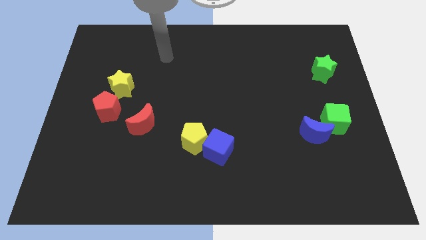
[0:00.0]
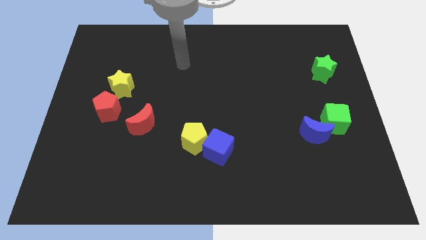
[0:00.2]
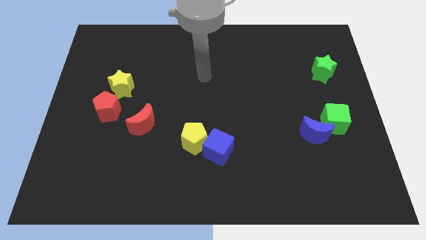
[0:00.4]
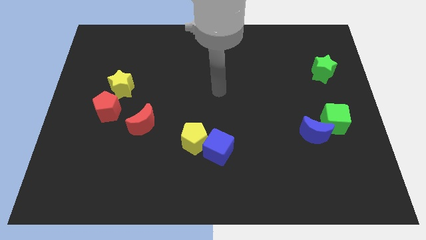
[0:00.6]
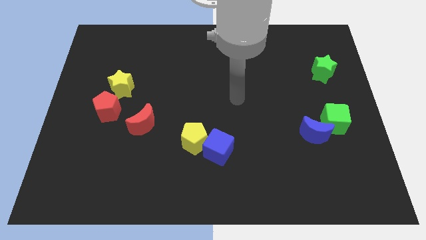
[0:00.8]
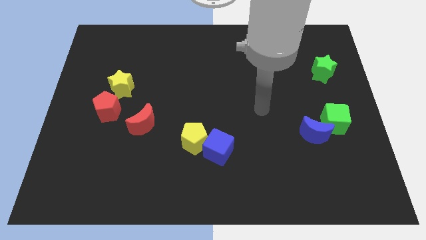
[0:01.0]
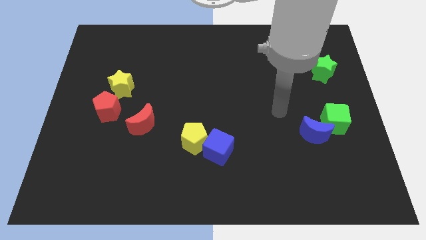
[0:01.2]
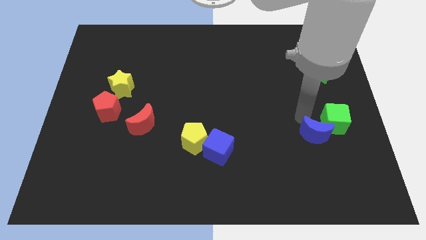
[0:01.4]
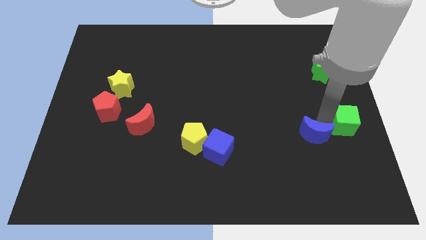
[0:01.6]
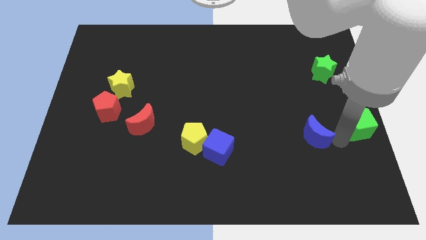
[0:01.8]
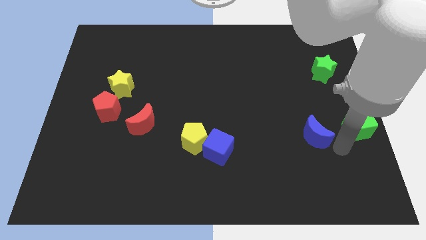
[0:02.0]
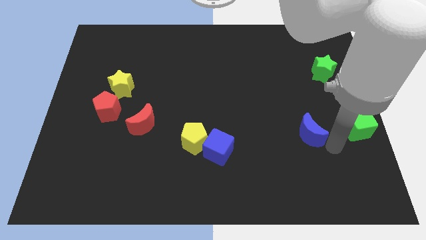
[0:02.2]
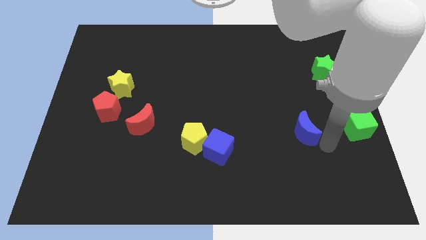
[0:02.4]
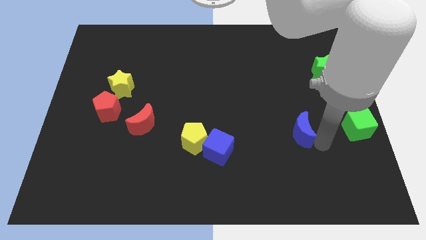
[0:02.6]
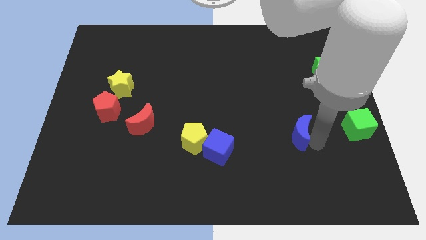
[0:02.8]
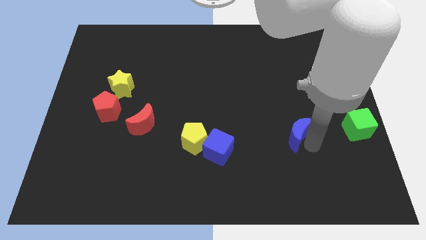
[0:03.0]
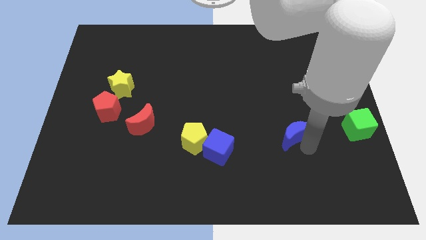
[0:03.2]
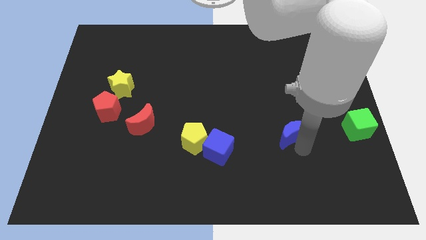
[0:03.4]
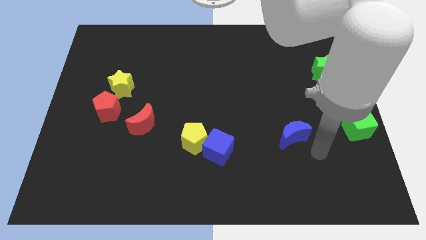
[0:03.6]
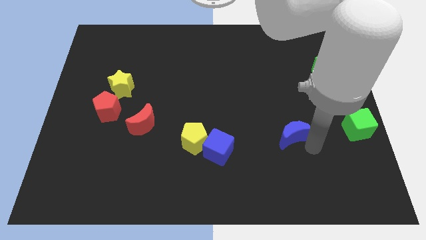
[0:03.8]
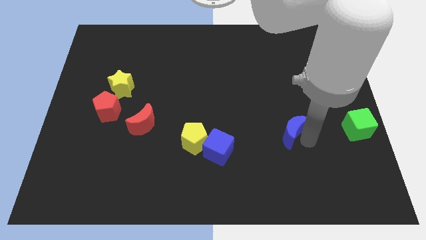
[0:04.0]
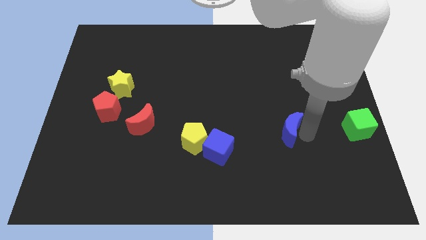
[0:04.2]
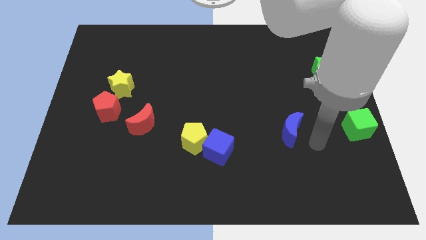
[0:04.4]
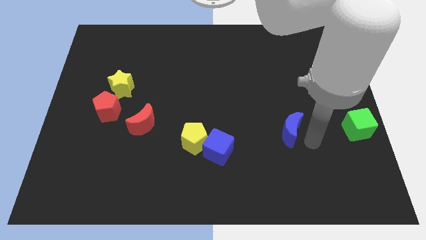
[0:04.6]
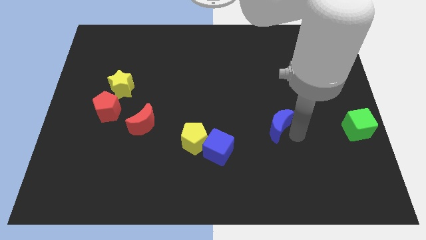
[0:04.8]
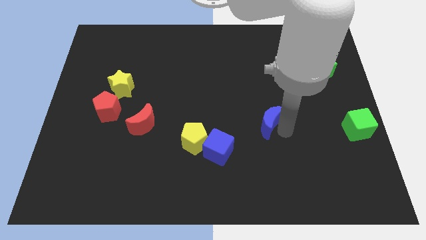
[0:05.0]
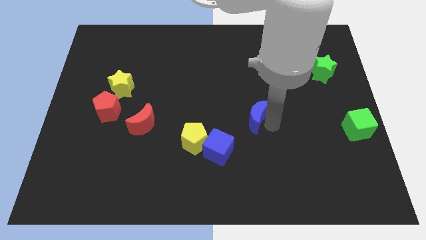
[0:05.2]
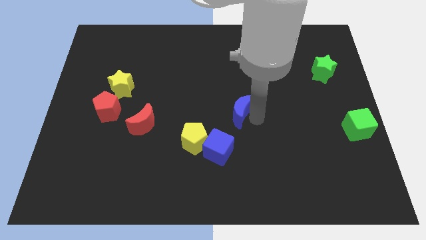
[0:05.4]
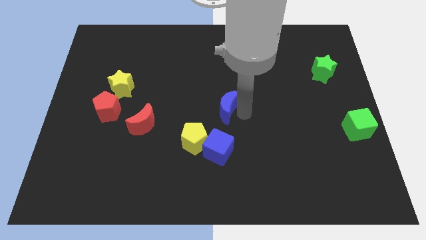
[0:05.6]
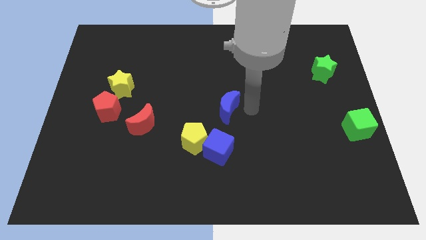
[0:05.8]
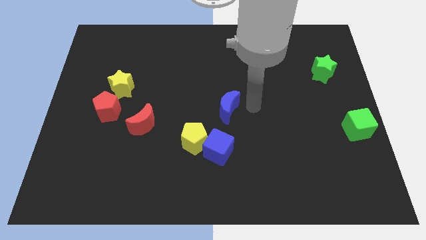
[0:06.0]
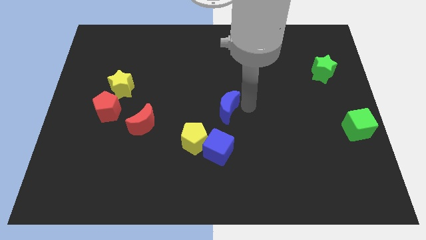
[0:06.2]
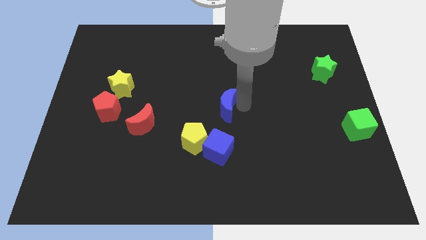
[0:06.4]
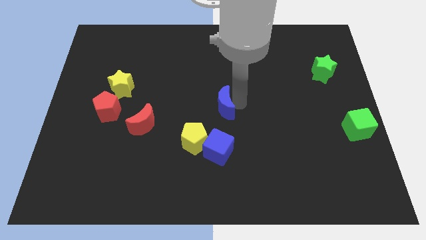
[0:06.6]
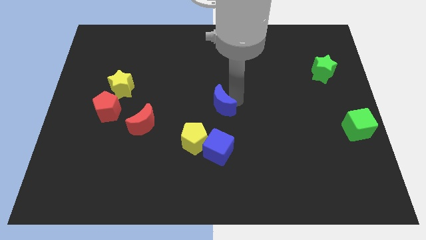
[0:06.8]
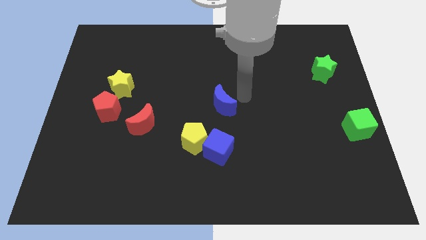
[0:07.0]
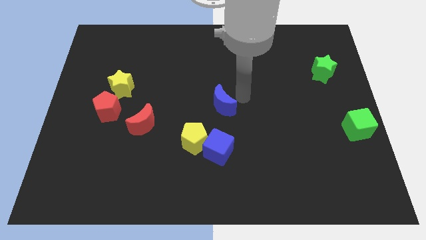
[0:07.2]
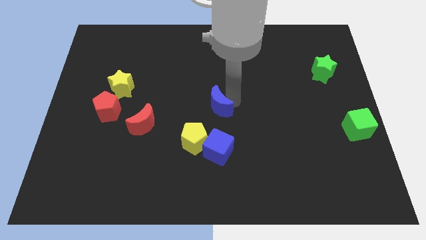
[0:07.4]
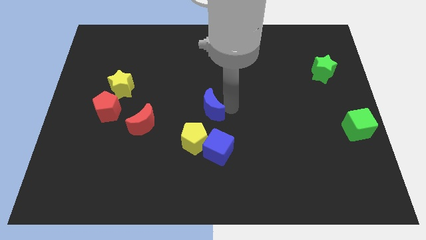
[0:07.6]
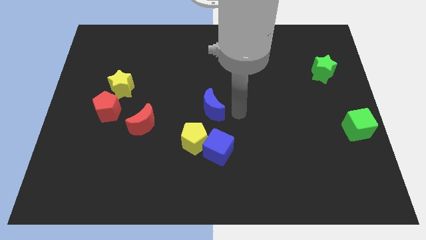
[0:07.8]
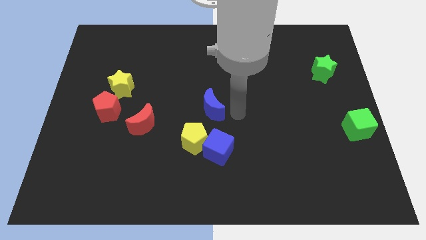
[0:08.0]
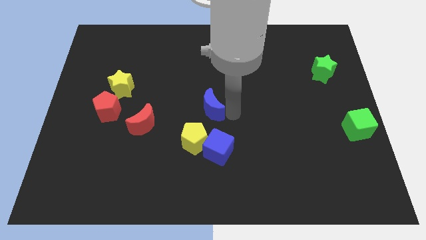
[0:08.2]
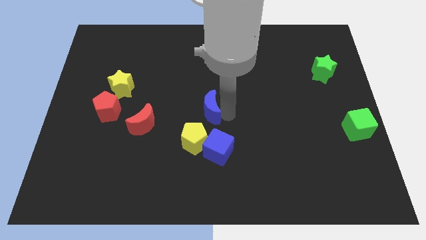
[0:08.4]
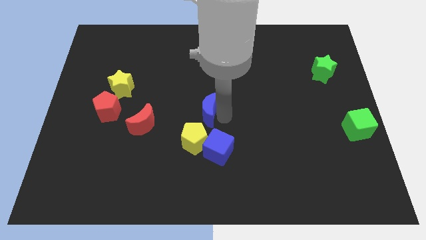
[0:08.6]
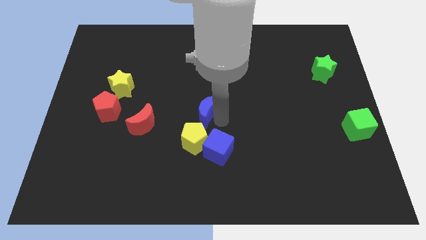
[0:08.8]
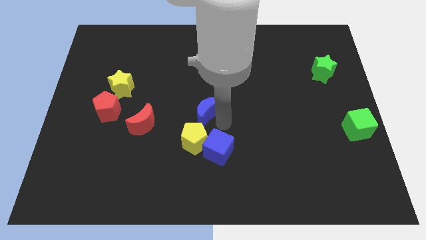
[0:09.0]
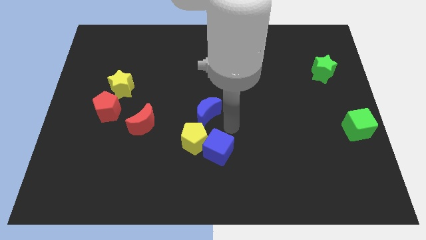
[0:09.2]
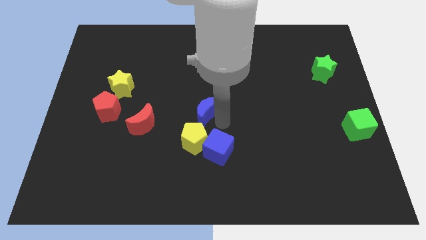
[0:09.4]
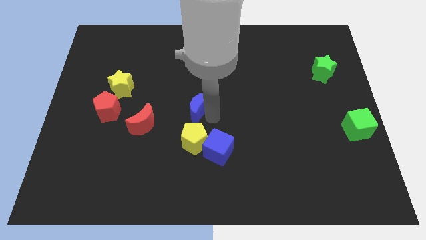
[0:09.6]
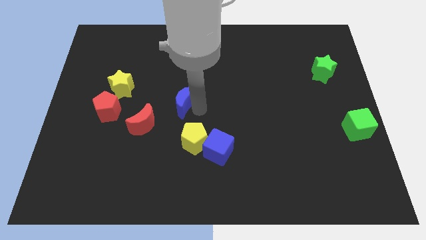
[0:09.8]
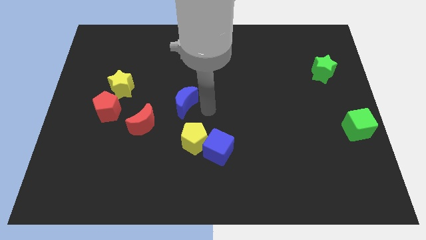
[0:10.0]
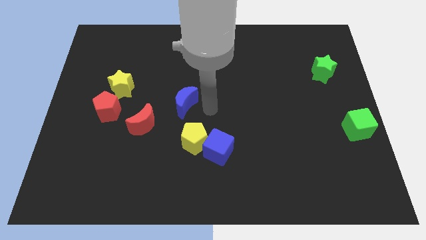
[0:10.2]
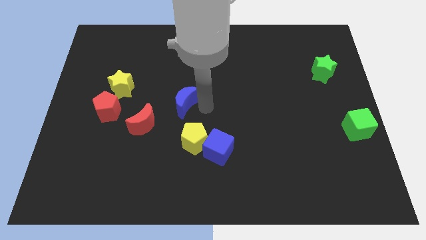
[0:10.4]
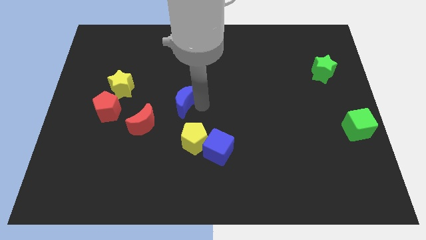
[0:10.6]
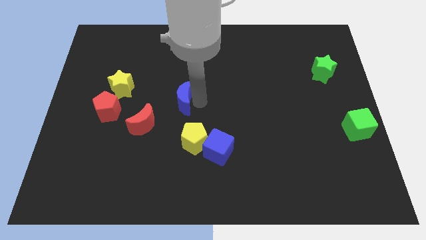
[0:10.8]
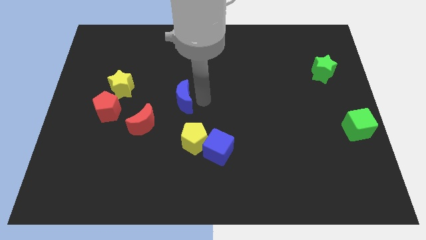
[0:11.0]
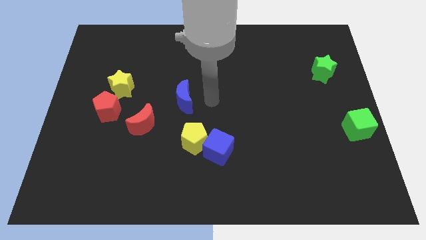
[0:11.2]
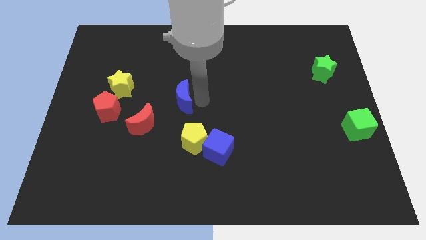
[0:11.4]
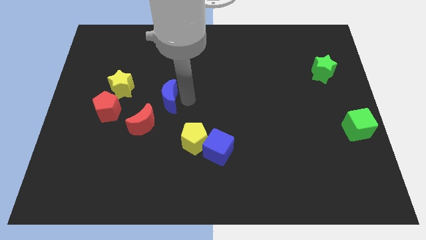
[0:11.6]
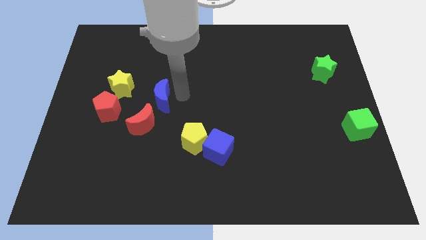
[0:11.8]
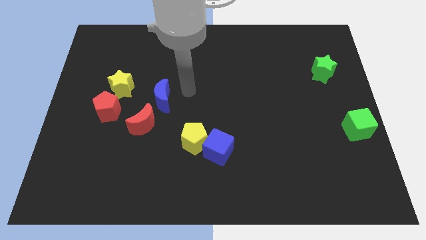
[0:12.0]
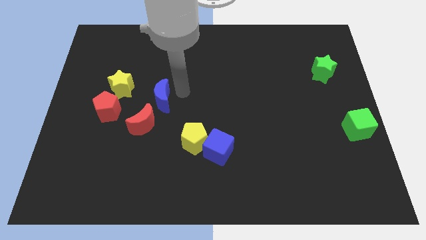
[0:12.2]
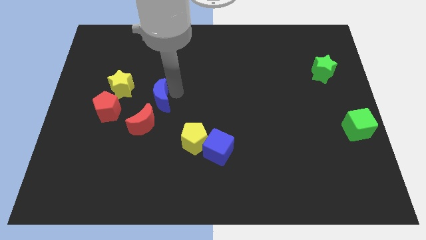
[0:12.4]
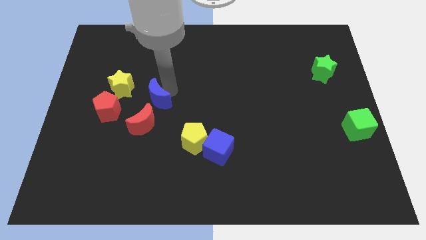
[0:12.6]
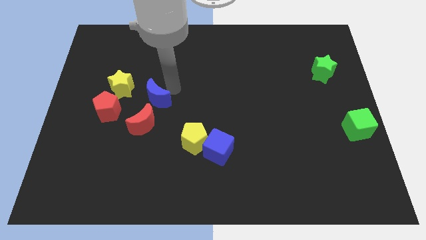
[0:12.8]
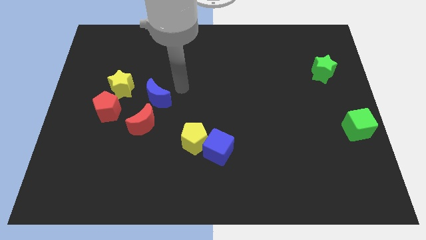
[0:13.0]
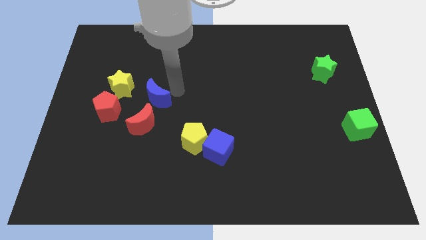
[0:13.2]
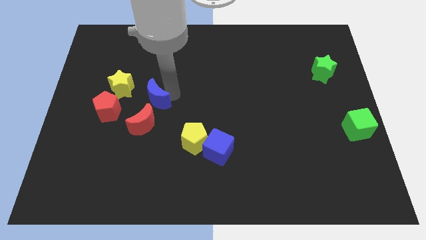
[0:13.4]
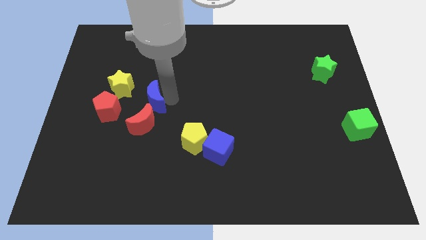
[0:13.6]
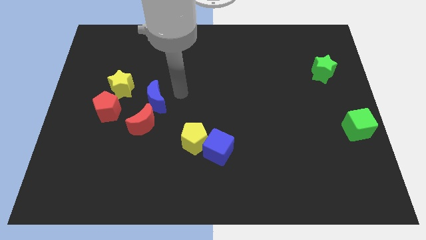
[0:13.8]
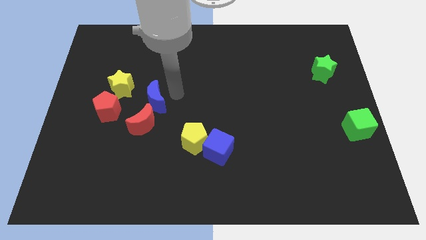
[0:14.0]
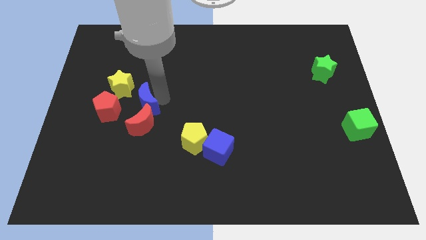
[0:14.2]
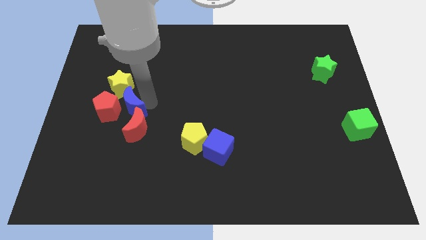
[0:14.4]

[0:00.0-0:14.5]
push the blue moon to the red pentagon

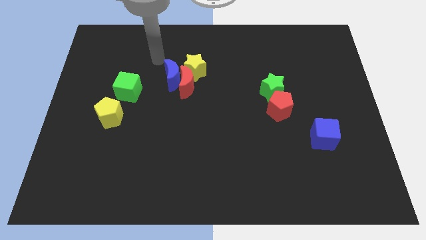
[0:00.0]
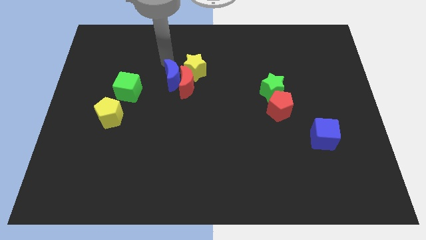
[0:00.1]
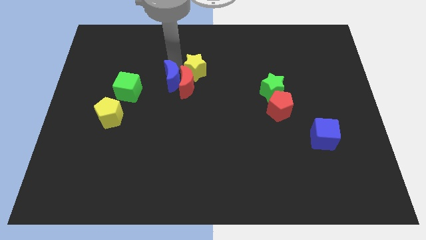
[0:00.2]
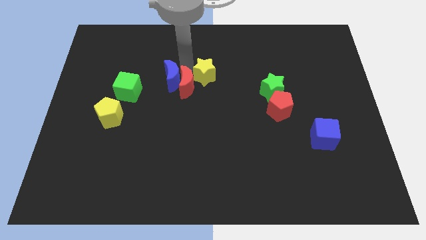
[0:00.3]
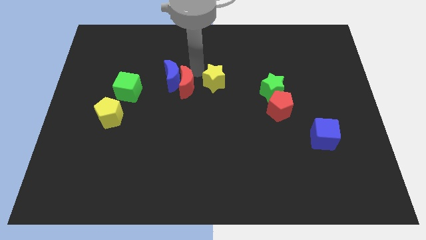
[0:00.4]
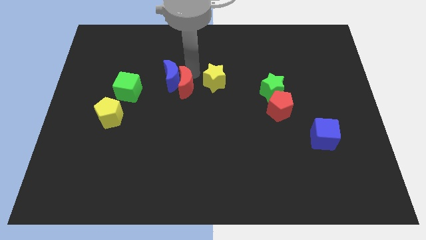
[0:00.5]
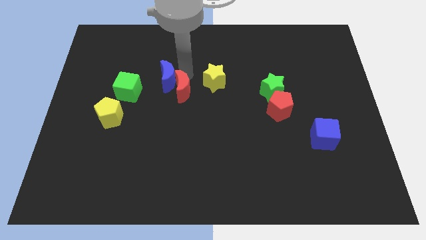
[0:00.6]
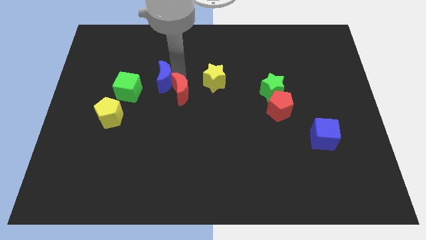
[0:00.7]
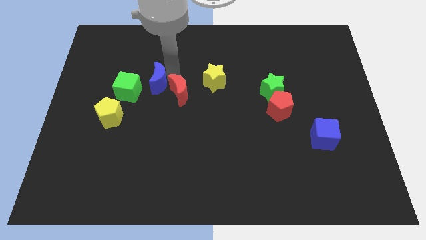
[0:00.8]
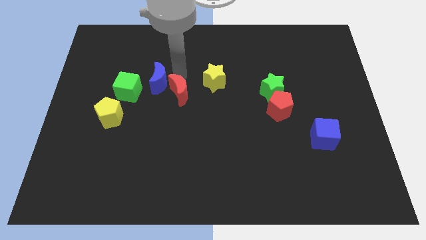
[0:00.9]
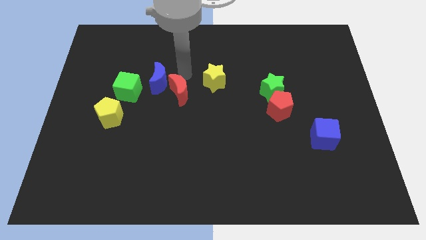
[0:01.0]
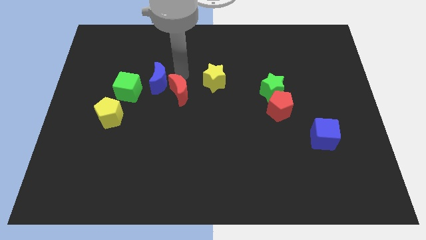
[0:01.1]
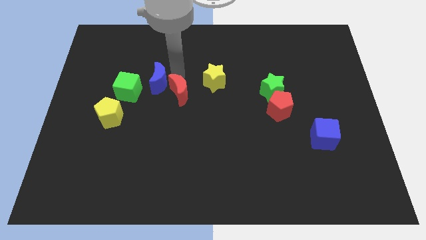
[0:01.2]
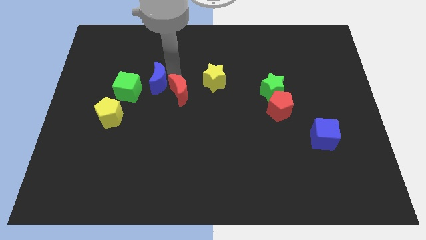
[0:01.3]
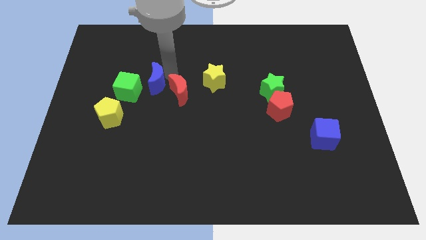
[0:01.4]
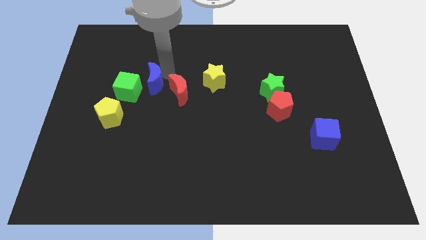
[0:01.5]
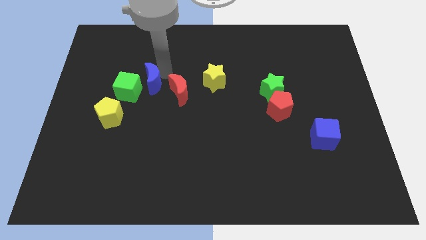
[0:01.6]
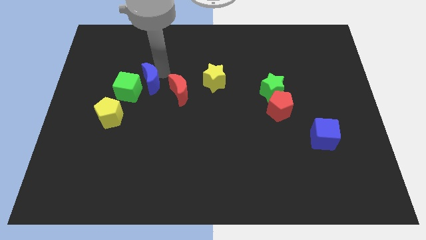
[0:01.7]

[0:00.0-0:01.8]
push the blue moon close to the green cube
